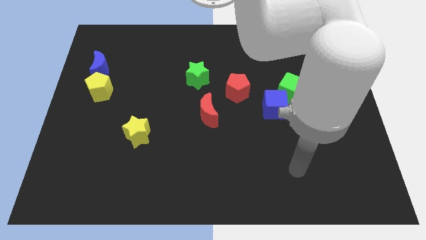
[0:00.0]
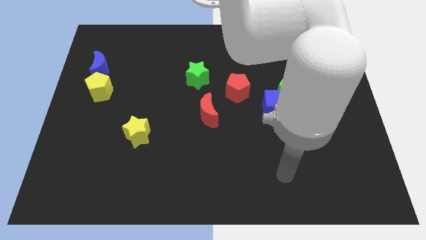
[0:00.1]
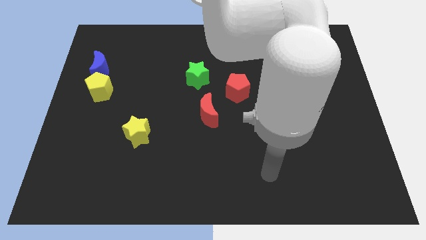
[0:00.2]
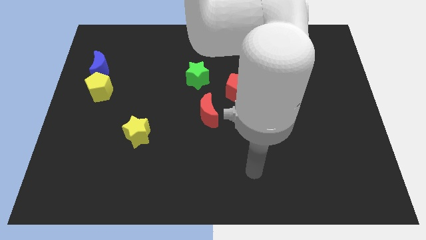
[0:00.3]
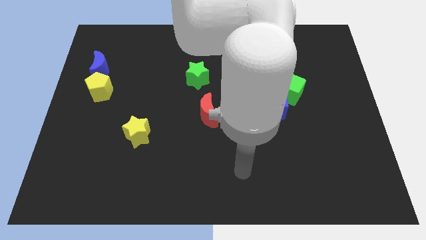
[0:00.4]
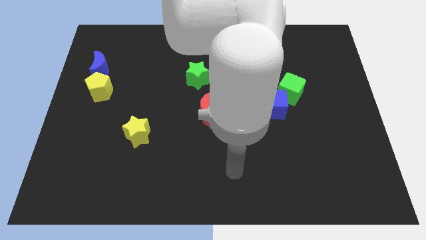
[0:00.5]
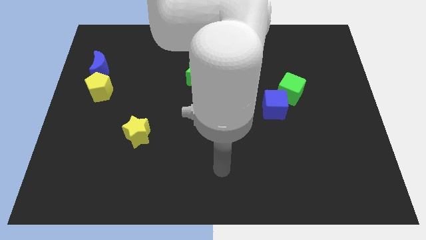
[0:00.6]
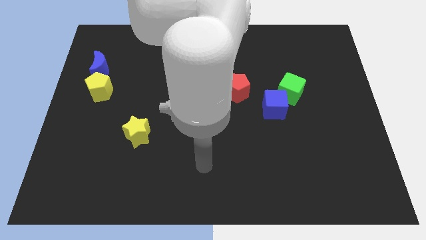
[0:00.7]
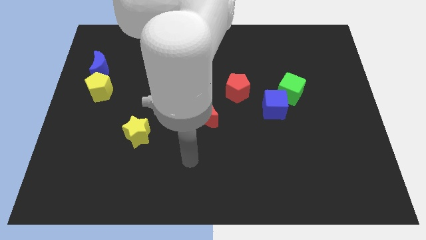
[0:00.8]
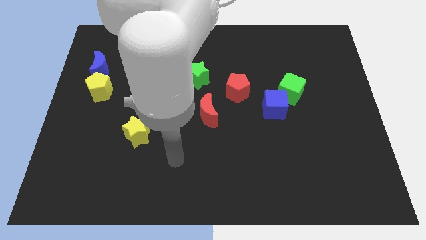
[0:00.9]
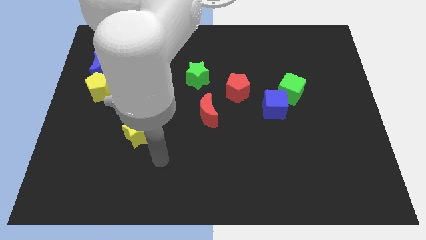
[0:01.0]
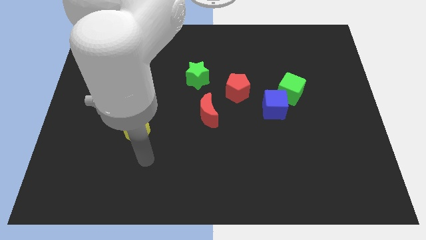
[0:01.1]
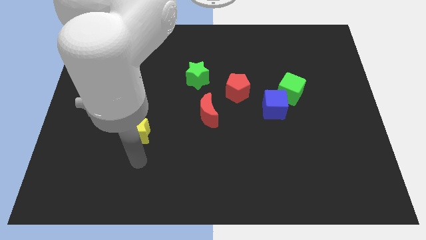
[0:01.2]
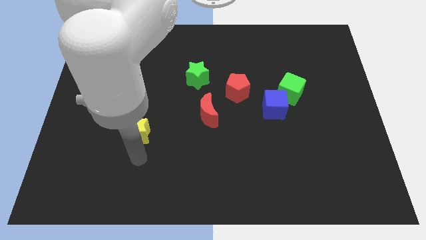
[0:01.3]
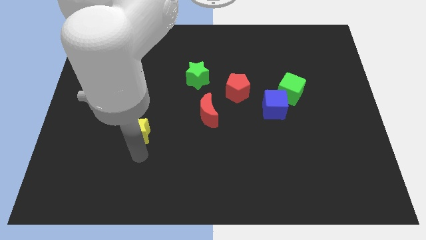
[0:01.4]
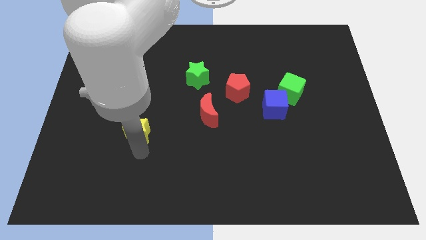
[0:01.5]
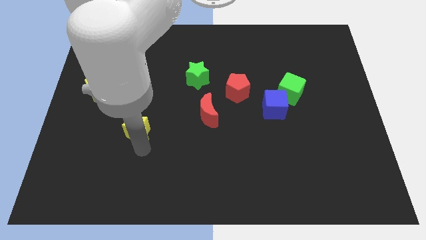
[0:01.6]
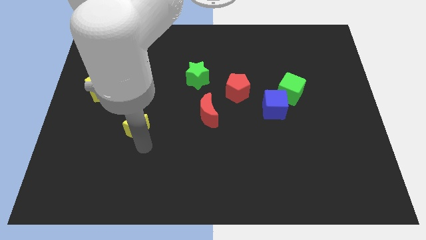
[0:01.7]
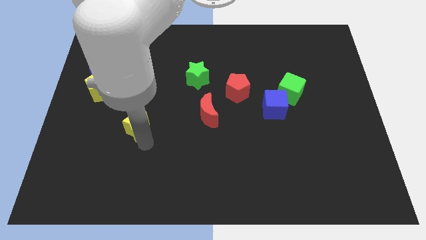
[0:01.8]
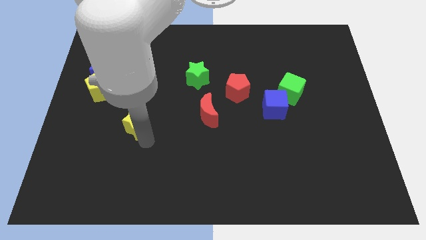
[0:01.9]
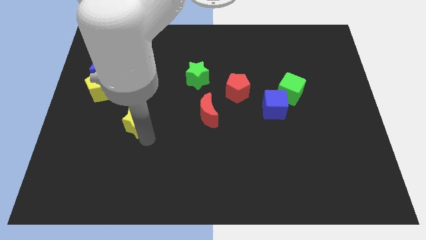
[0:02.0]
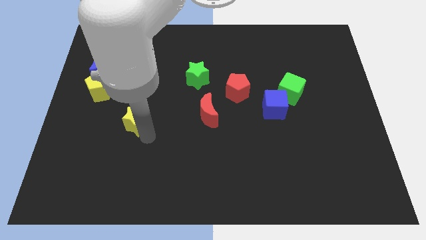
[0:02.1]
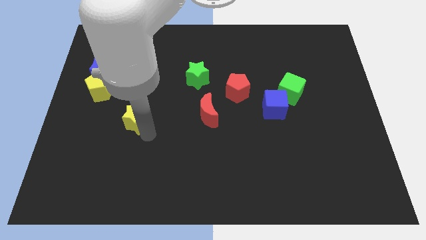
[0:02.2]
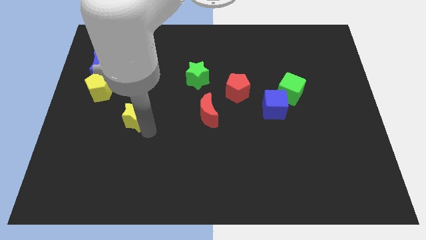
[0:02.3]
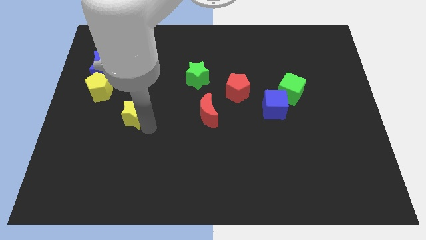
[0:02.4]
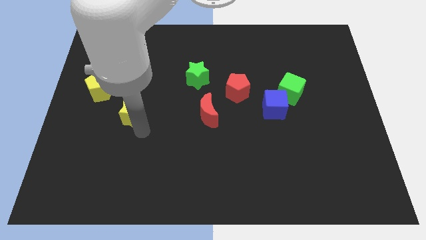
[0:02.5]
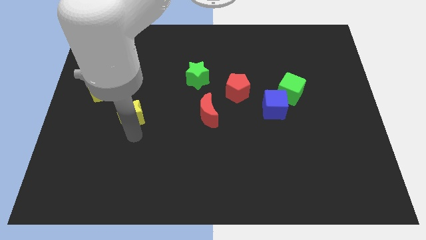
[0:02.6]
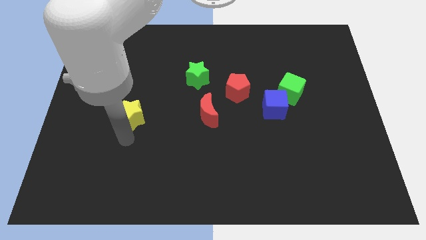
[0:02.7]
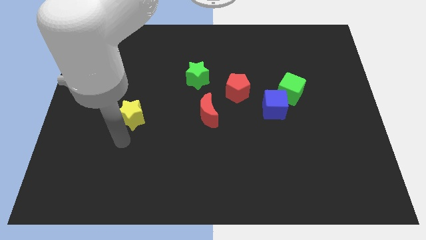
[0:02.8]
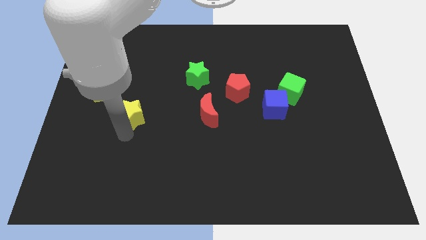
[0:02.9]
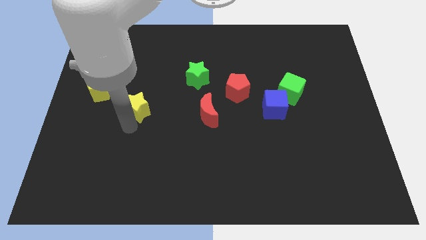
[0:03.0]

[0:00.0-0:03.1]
slightly push the yellow star upwards

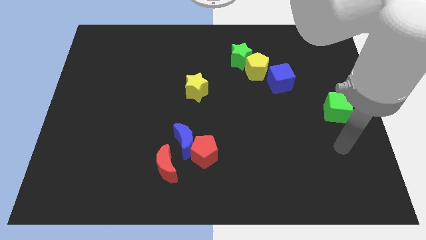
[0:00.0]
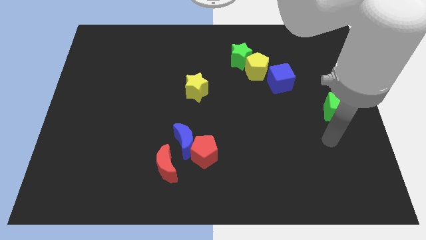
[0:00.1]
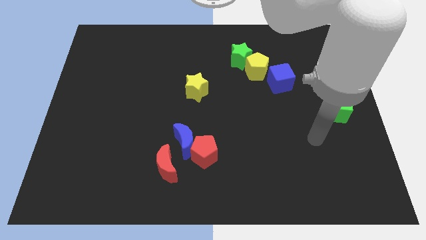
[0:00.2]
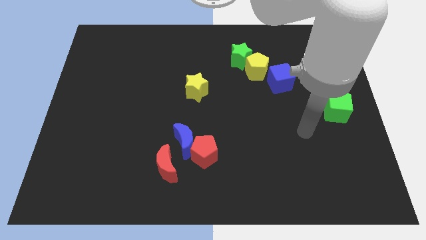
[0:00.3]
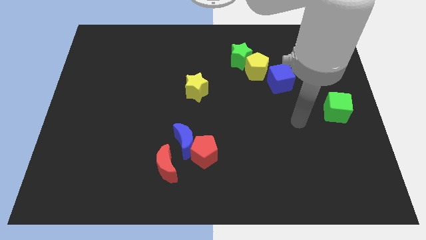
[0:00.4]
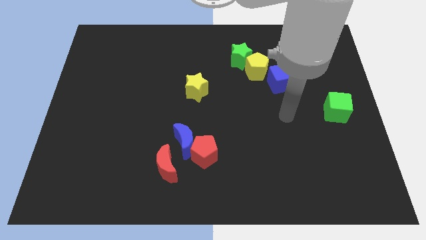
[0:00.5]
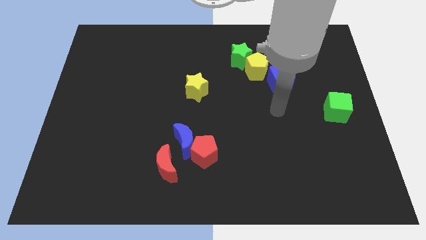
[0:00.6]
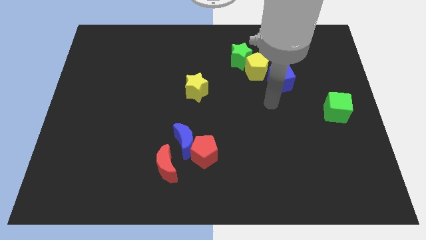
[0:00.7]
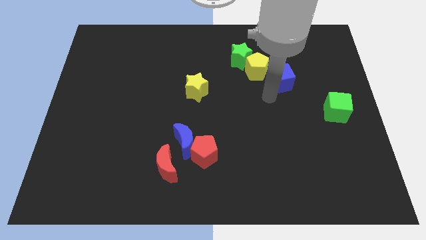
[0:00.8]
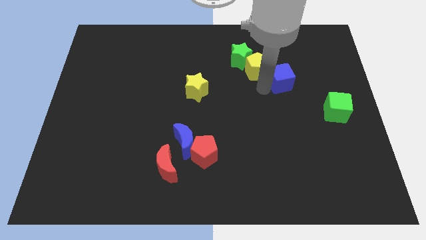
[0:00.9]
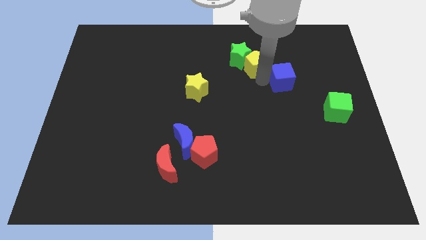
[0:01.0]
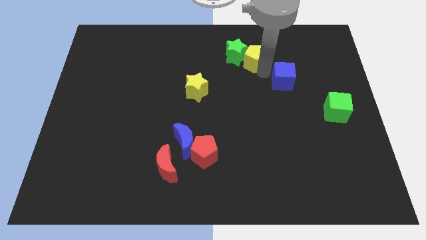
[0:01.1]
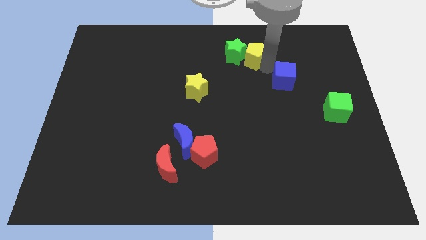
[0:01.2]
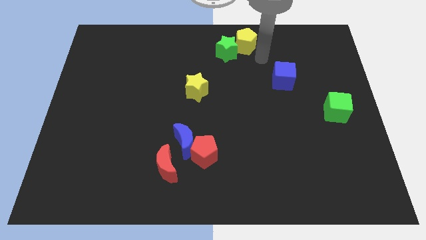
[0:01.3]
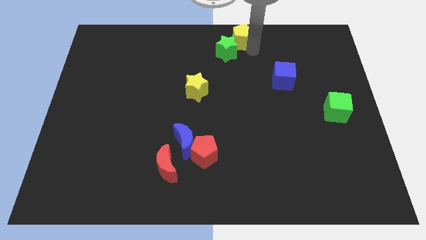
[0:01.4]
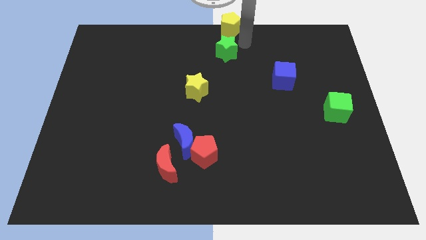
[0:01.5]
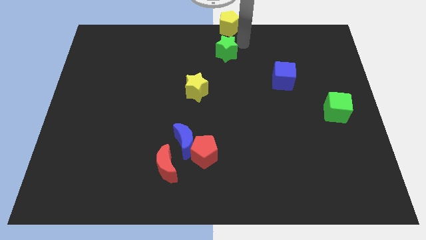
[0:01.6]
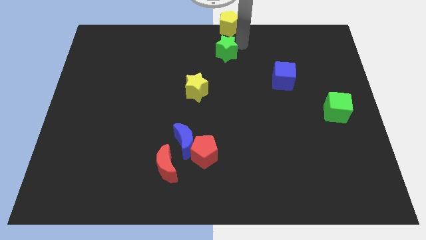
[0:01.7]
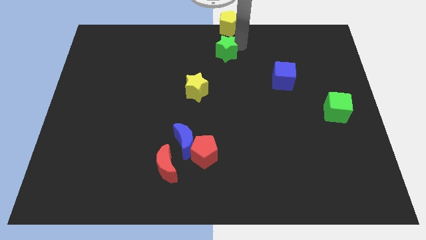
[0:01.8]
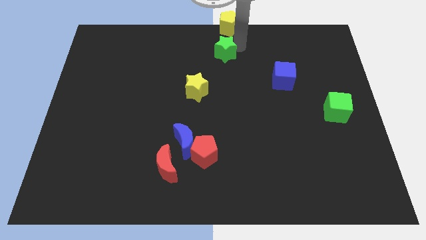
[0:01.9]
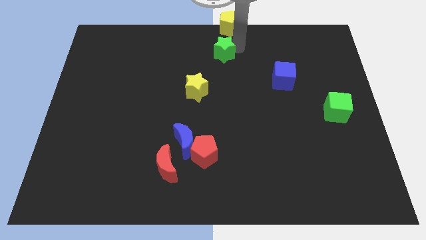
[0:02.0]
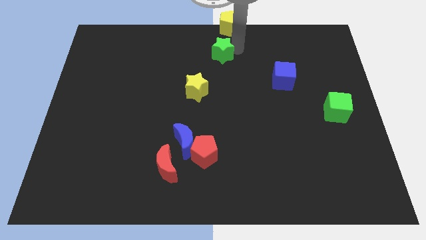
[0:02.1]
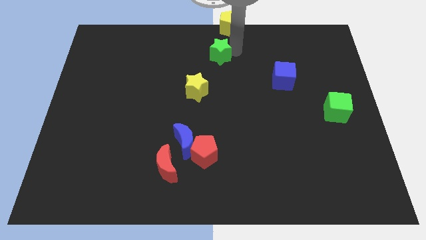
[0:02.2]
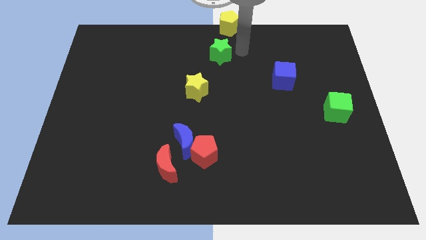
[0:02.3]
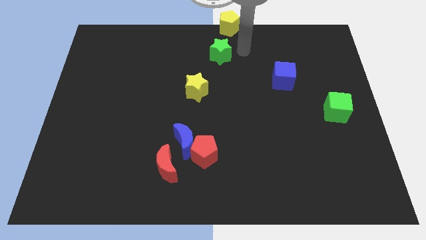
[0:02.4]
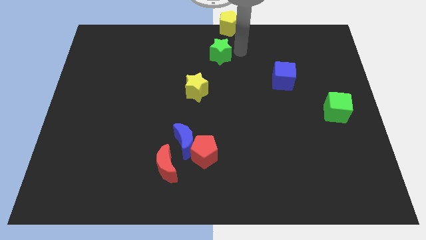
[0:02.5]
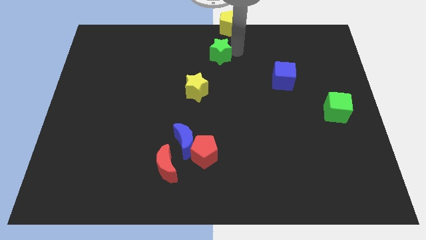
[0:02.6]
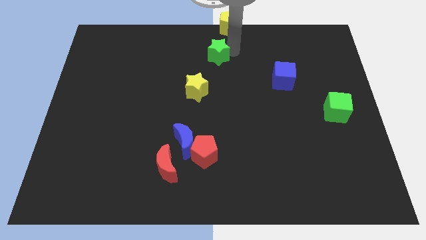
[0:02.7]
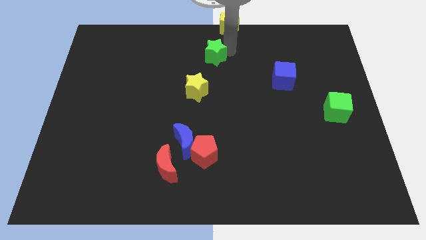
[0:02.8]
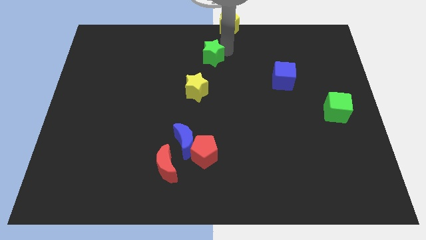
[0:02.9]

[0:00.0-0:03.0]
move the green star left a little

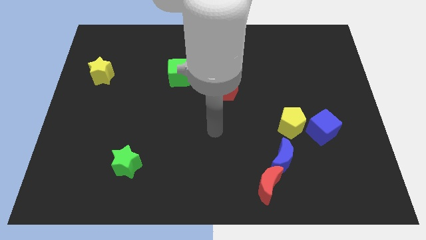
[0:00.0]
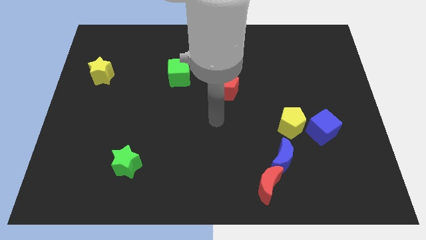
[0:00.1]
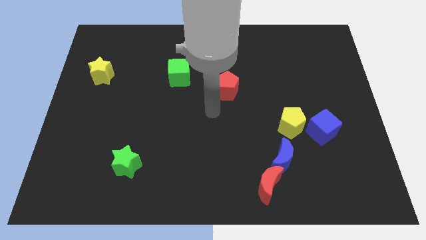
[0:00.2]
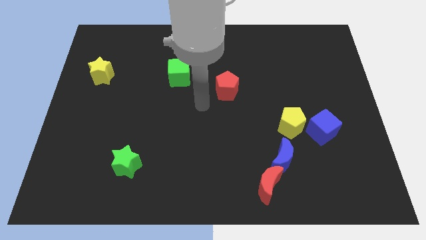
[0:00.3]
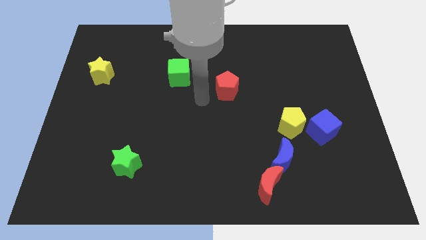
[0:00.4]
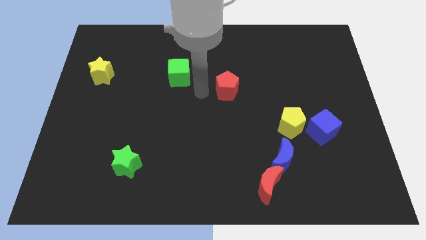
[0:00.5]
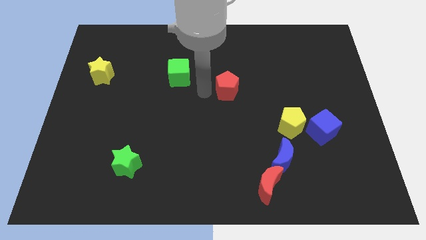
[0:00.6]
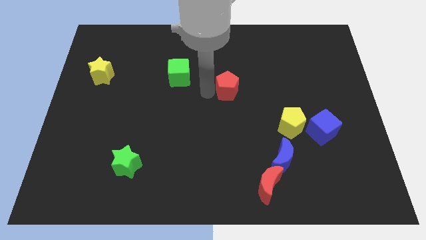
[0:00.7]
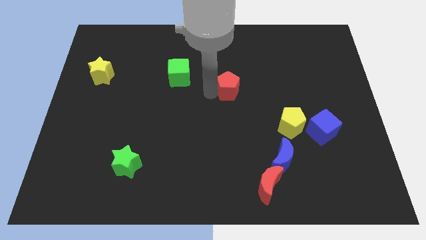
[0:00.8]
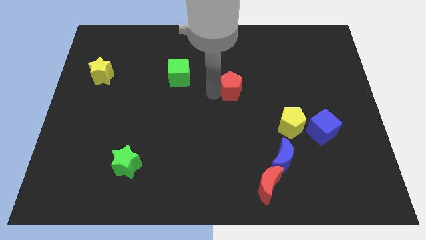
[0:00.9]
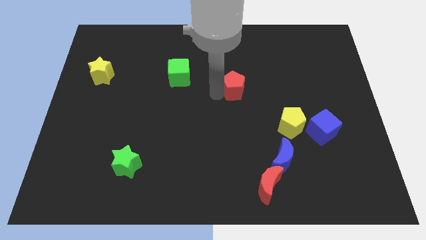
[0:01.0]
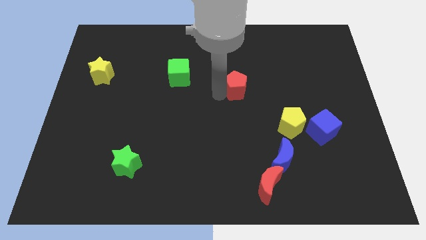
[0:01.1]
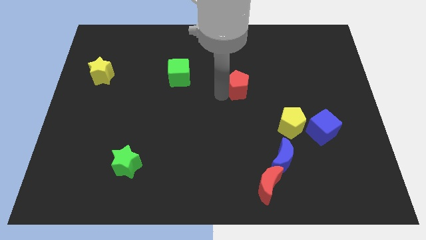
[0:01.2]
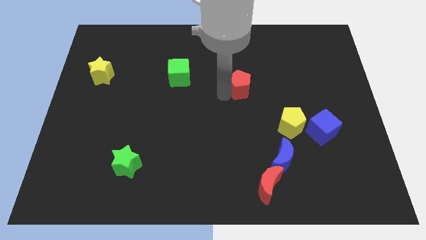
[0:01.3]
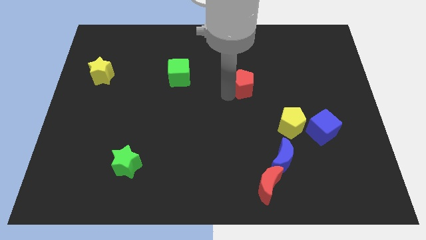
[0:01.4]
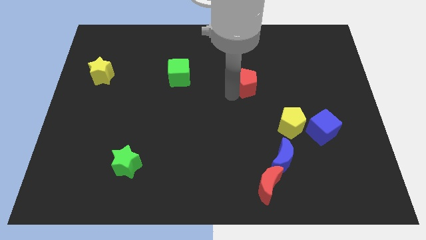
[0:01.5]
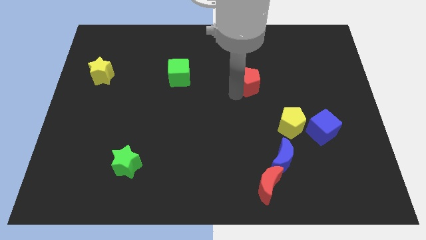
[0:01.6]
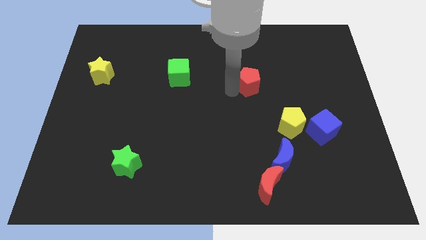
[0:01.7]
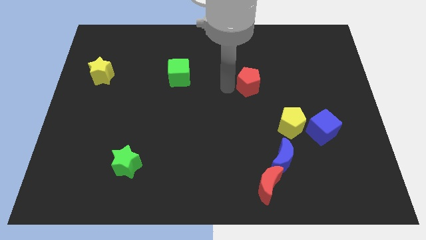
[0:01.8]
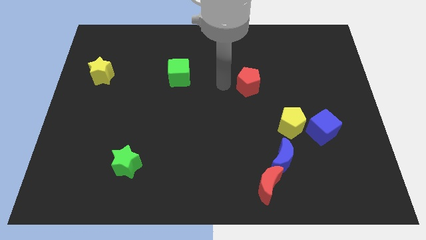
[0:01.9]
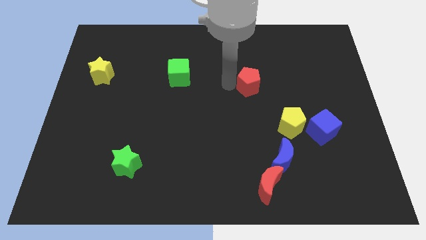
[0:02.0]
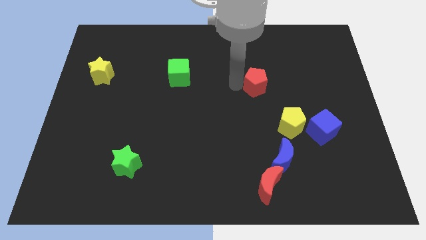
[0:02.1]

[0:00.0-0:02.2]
slide the red pentagon a little bit to the right

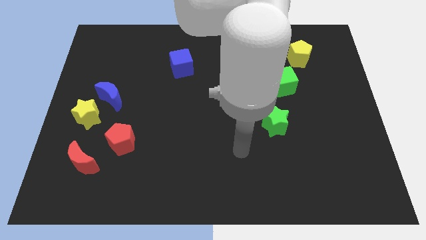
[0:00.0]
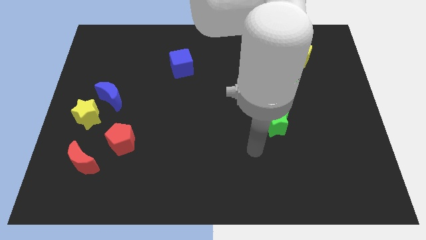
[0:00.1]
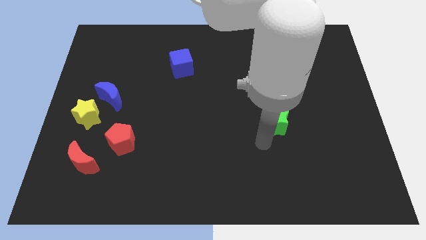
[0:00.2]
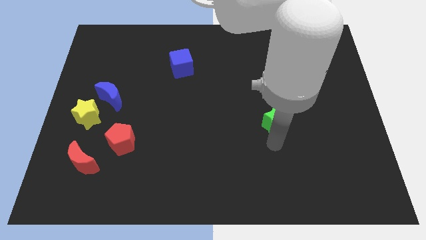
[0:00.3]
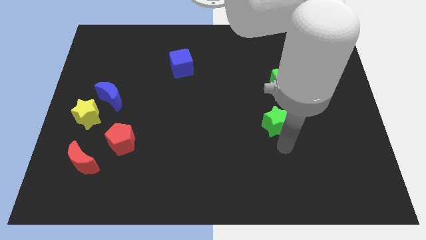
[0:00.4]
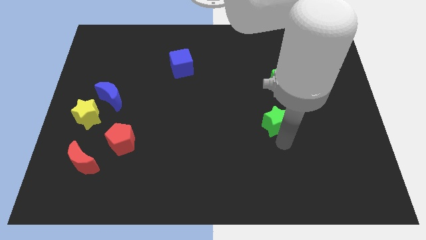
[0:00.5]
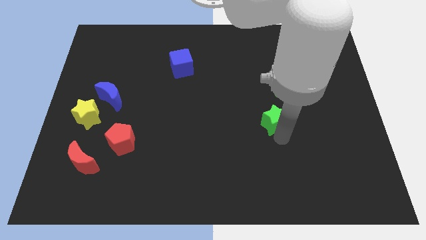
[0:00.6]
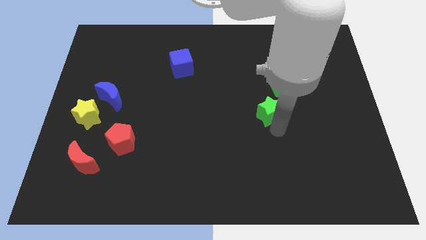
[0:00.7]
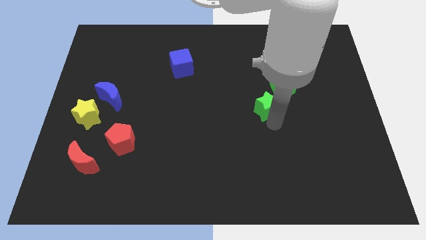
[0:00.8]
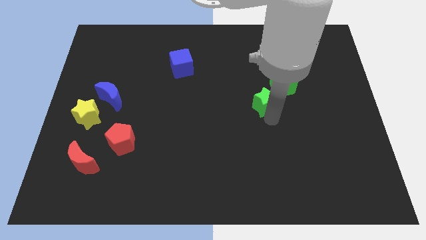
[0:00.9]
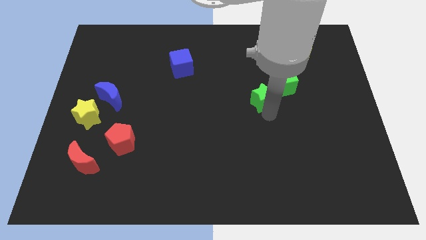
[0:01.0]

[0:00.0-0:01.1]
move the green star up slightly
